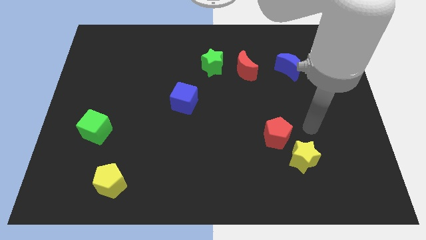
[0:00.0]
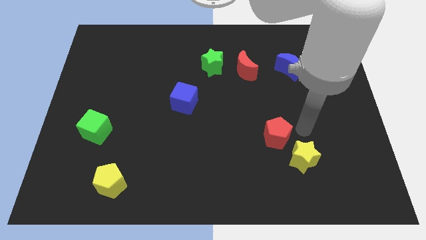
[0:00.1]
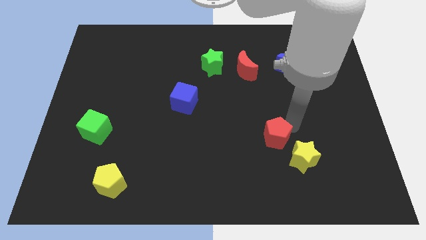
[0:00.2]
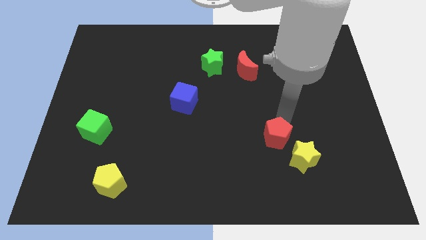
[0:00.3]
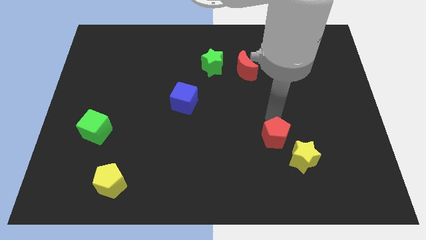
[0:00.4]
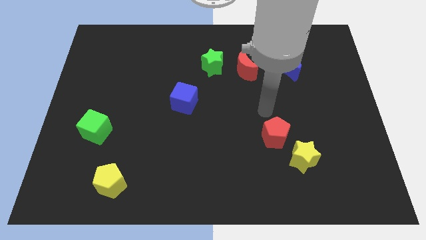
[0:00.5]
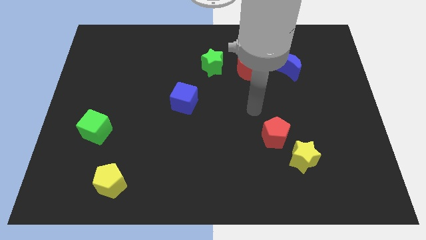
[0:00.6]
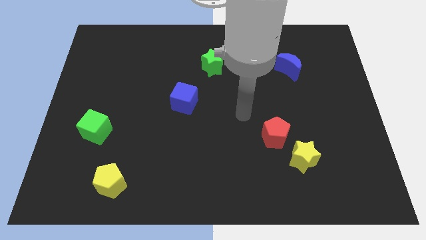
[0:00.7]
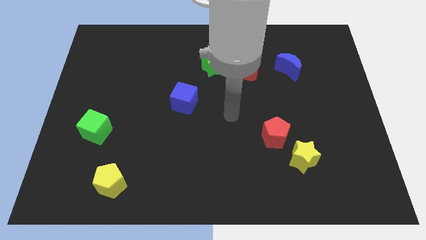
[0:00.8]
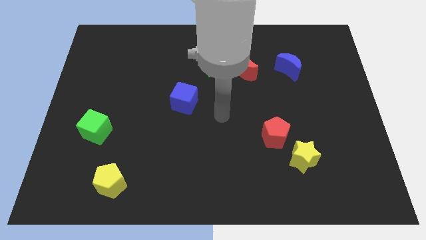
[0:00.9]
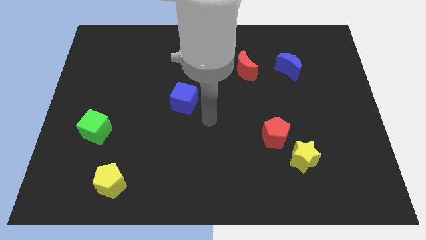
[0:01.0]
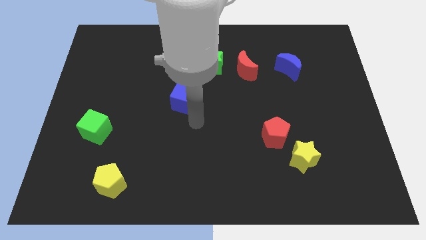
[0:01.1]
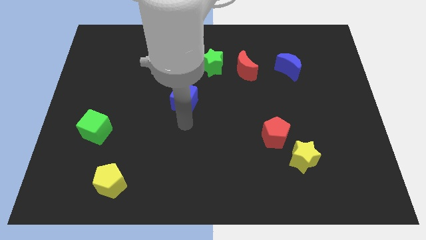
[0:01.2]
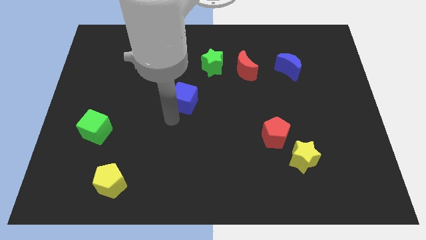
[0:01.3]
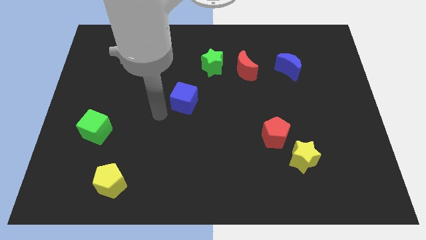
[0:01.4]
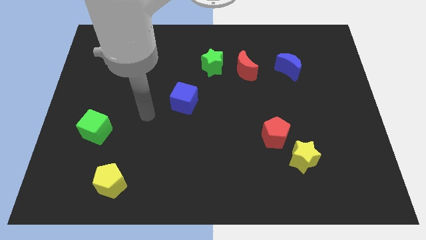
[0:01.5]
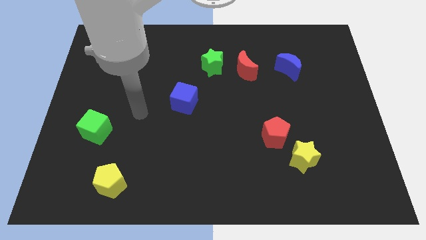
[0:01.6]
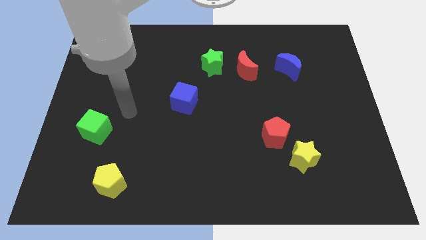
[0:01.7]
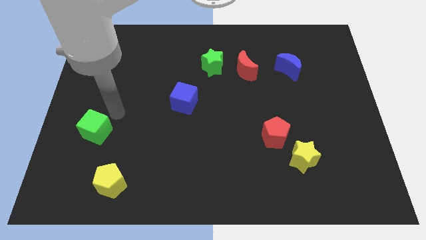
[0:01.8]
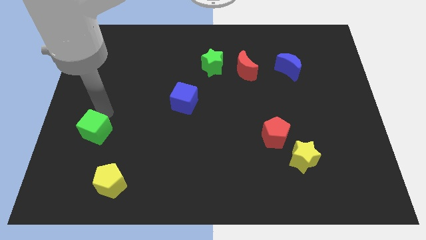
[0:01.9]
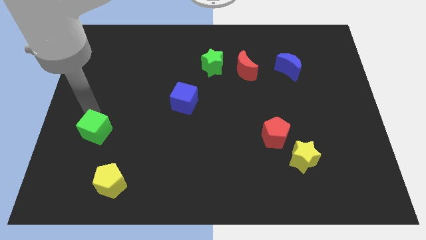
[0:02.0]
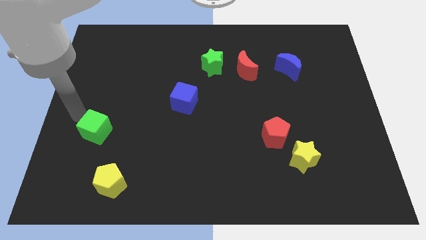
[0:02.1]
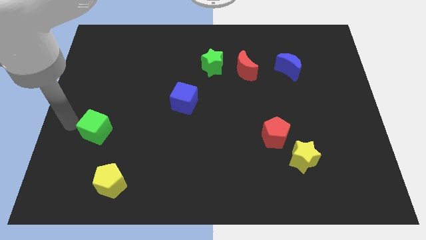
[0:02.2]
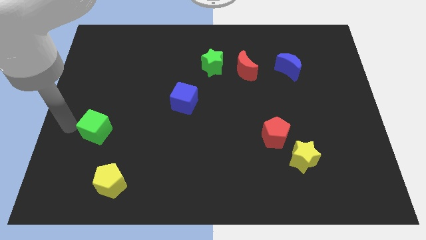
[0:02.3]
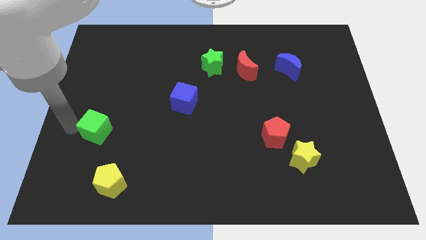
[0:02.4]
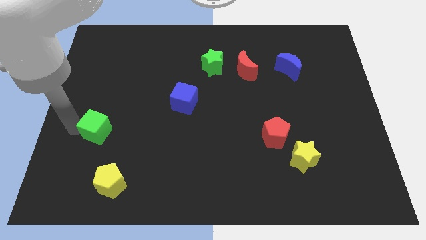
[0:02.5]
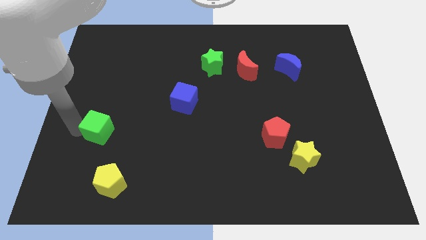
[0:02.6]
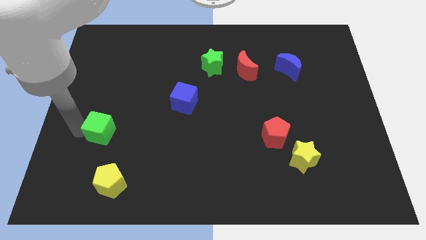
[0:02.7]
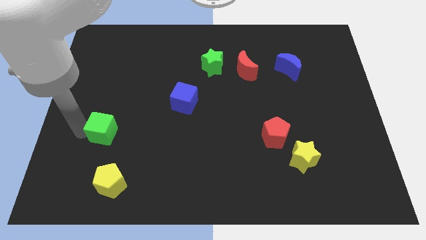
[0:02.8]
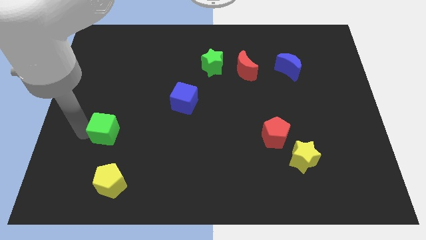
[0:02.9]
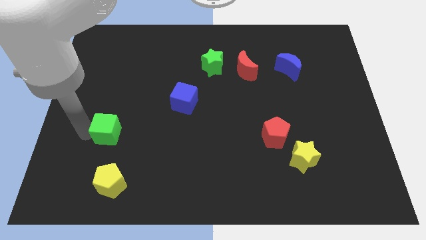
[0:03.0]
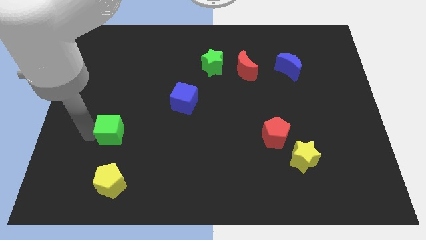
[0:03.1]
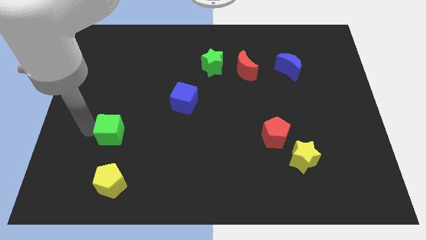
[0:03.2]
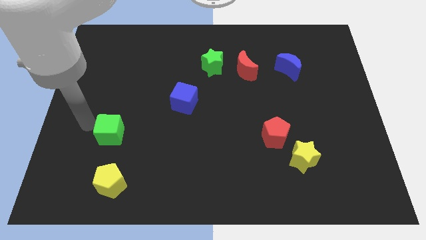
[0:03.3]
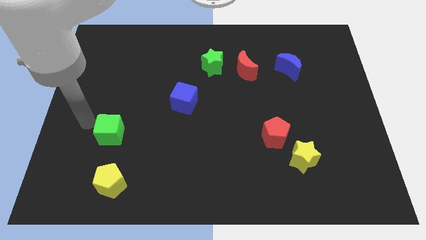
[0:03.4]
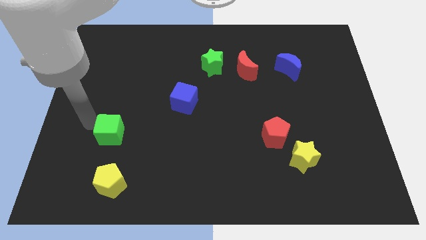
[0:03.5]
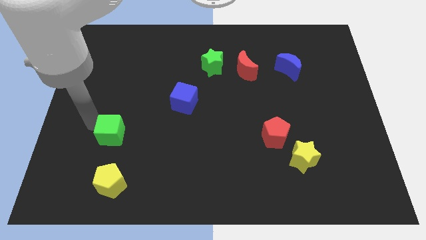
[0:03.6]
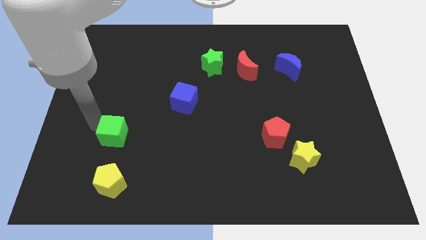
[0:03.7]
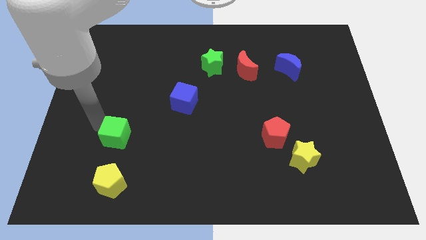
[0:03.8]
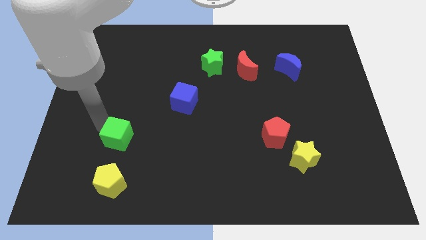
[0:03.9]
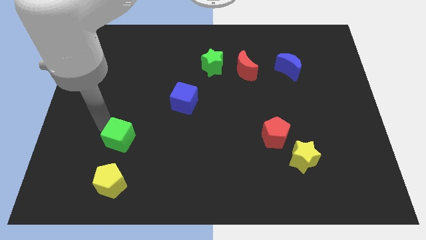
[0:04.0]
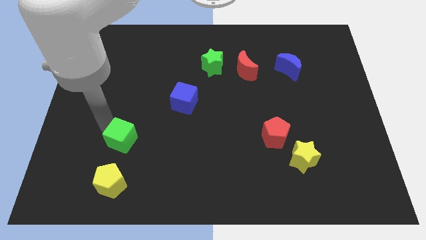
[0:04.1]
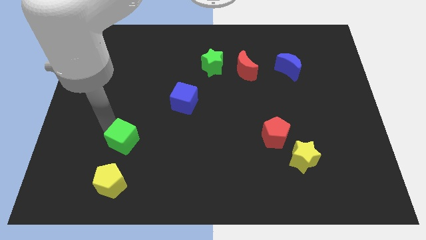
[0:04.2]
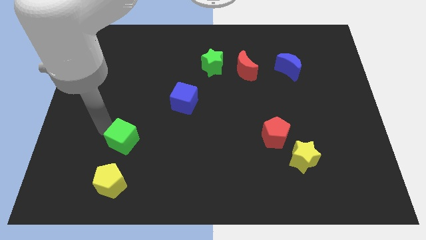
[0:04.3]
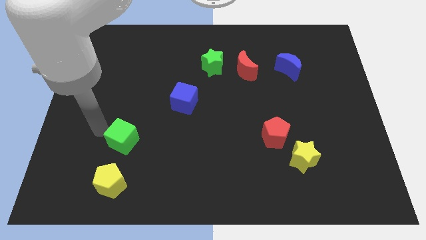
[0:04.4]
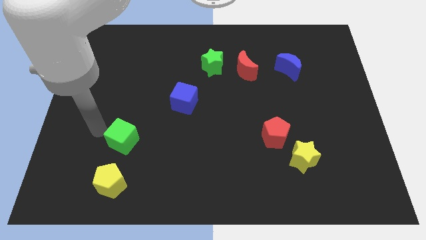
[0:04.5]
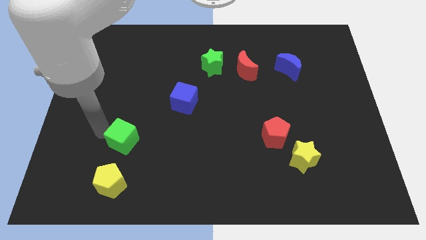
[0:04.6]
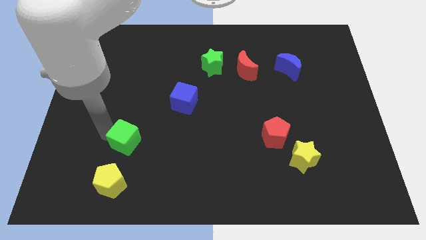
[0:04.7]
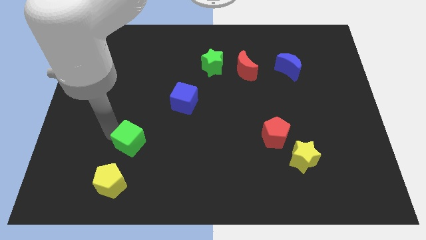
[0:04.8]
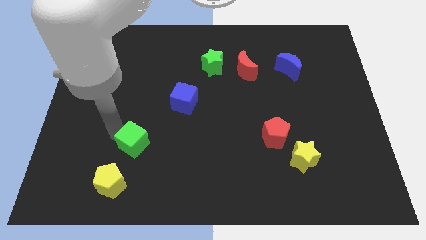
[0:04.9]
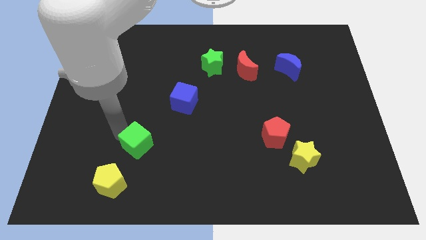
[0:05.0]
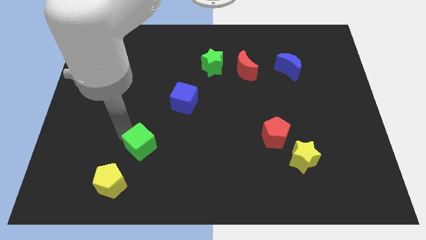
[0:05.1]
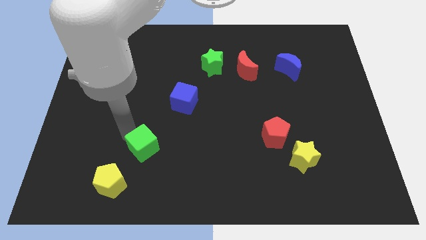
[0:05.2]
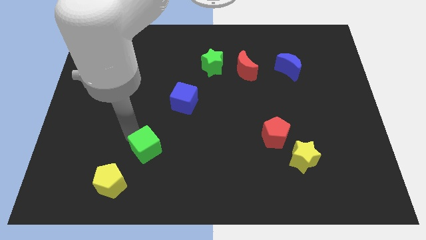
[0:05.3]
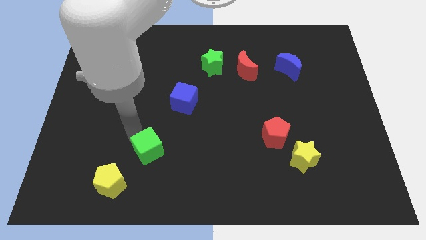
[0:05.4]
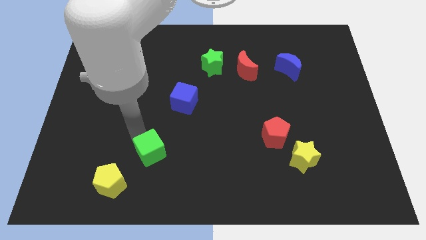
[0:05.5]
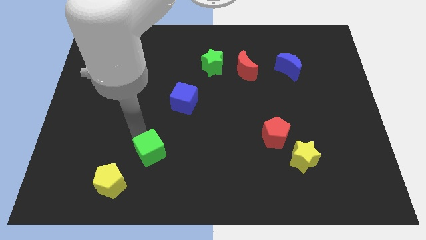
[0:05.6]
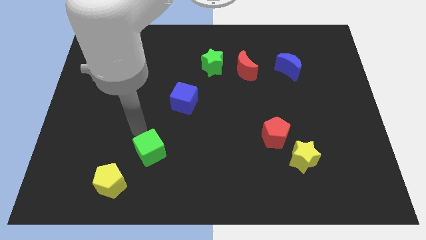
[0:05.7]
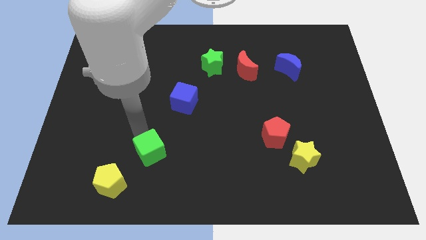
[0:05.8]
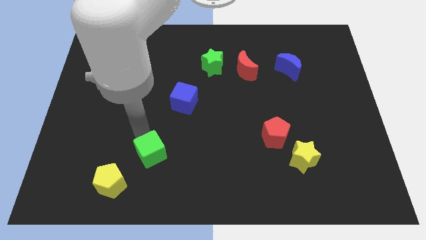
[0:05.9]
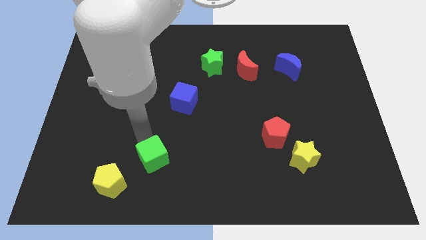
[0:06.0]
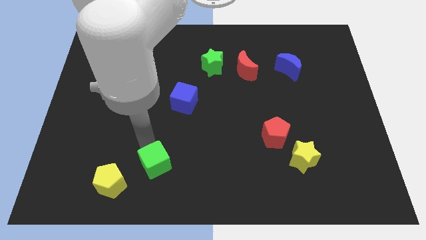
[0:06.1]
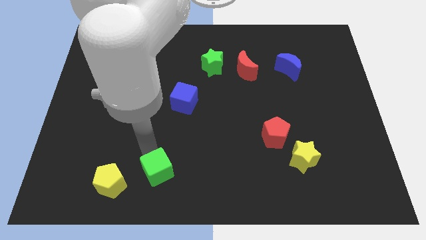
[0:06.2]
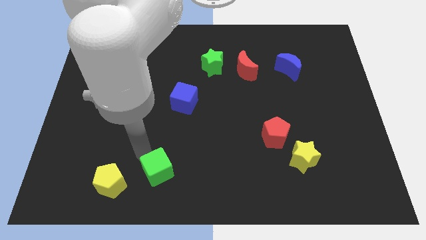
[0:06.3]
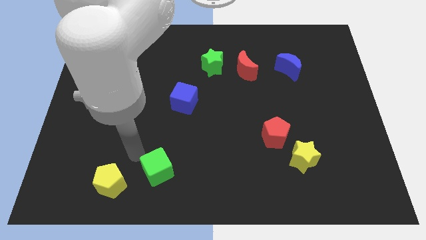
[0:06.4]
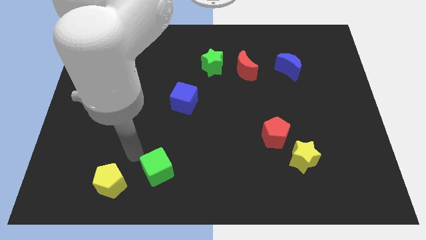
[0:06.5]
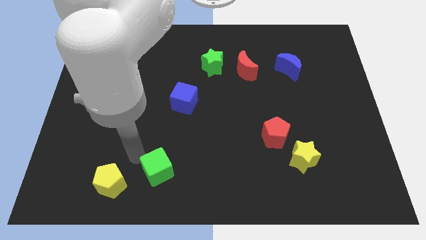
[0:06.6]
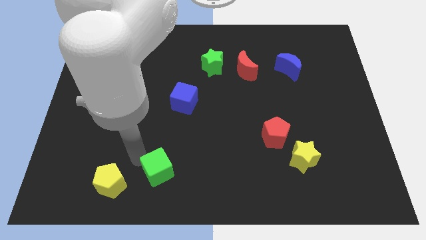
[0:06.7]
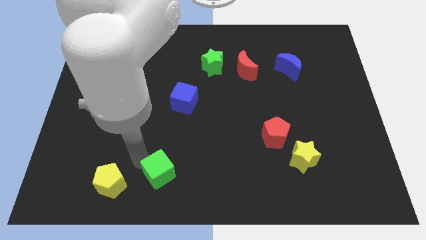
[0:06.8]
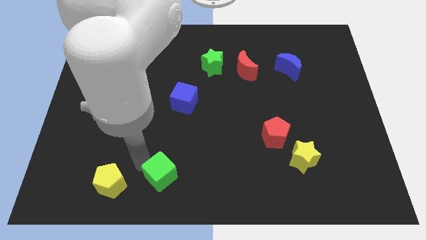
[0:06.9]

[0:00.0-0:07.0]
put the green cube to the bottom

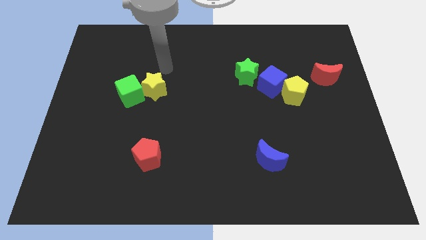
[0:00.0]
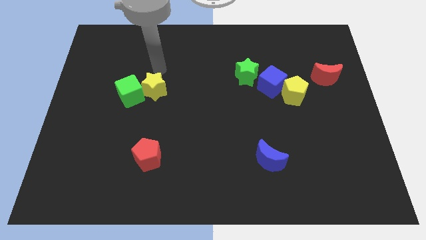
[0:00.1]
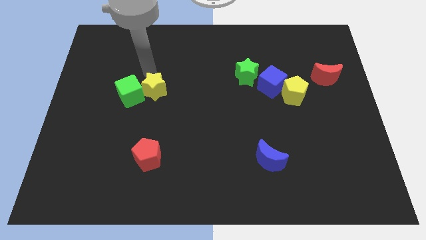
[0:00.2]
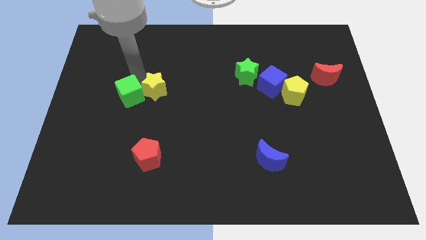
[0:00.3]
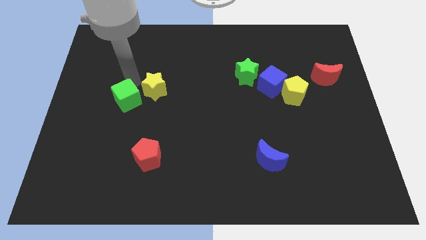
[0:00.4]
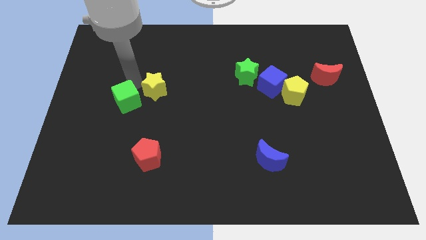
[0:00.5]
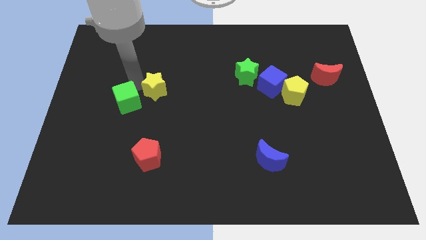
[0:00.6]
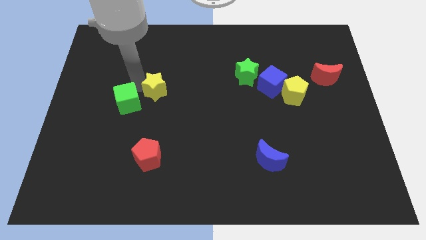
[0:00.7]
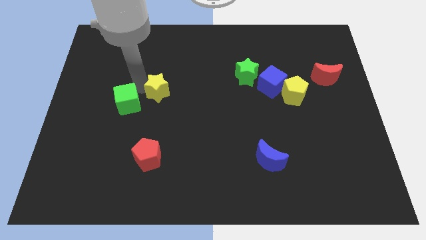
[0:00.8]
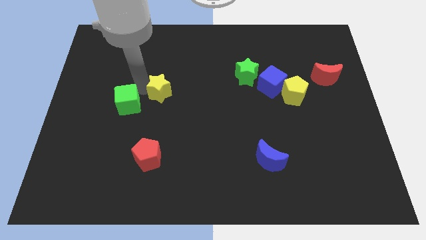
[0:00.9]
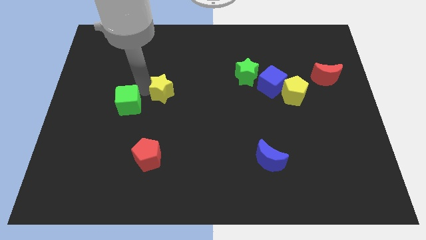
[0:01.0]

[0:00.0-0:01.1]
slide the yellow star to the center
